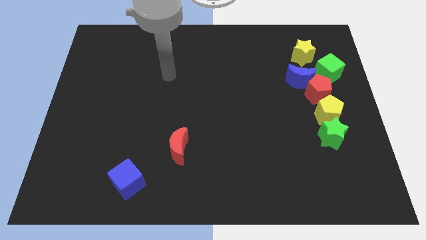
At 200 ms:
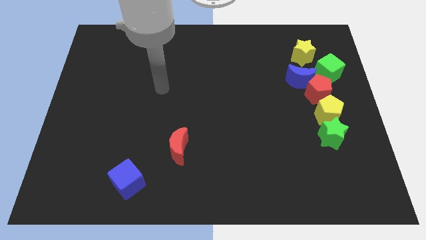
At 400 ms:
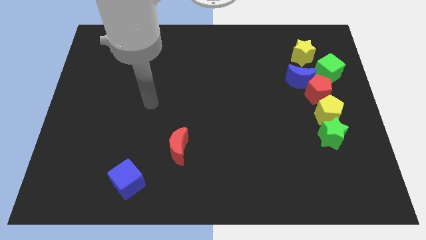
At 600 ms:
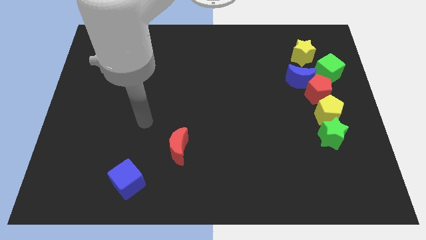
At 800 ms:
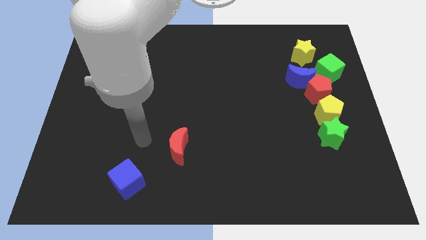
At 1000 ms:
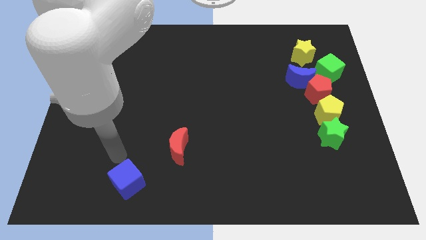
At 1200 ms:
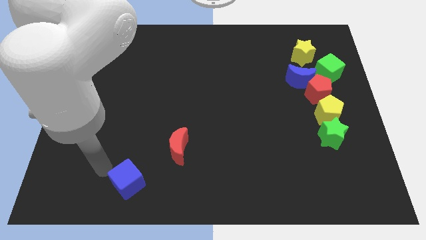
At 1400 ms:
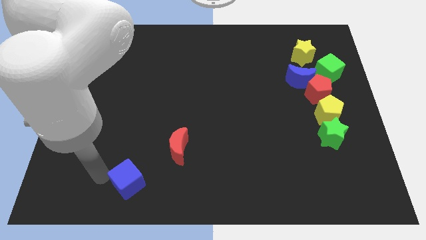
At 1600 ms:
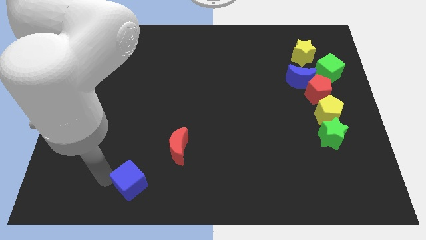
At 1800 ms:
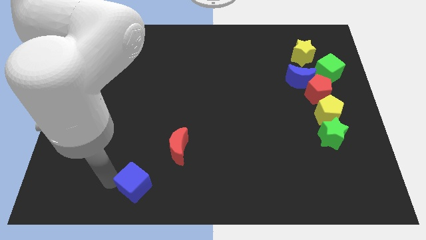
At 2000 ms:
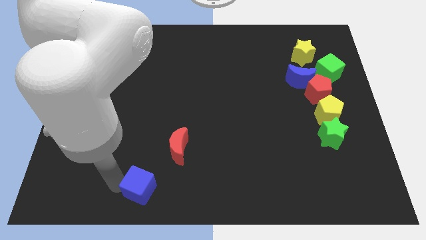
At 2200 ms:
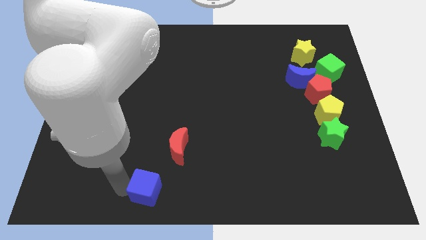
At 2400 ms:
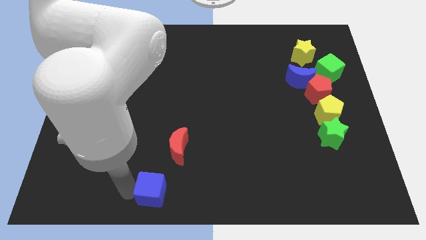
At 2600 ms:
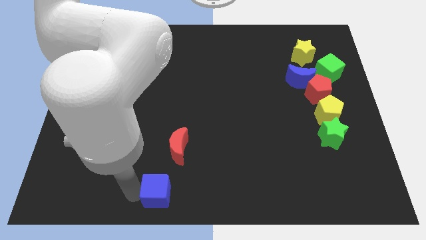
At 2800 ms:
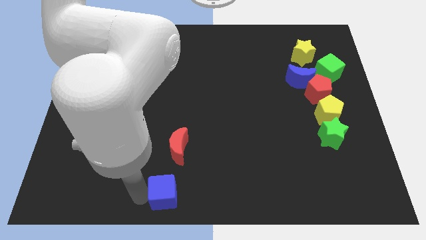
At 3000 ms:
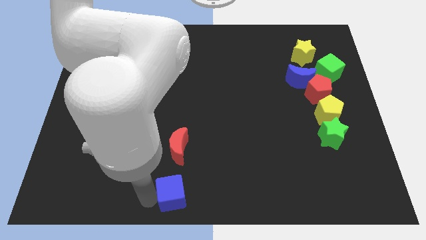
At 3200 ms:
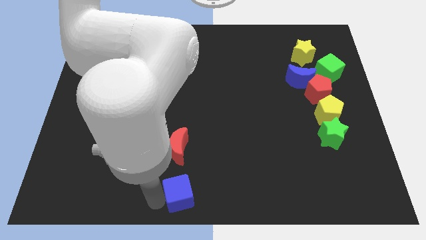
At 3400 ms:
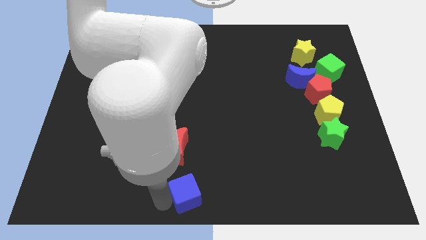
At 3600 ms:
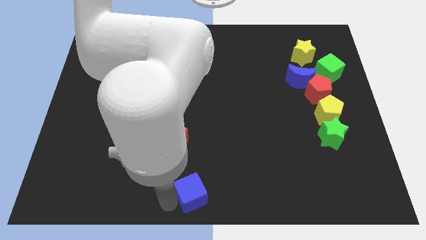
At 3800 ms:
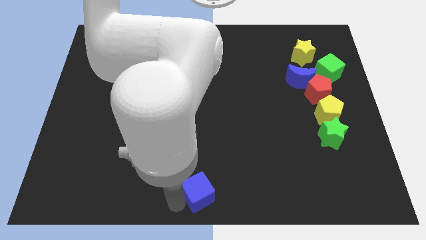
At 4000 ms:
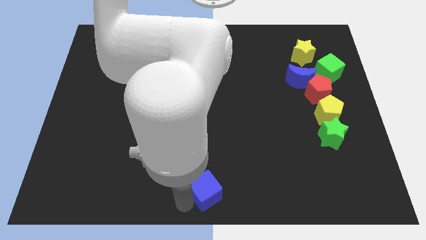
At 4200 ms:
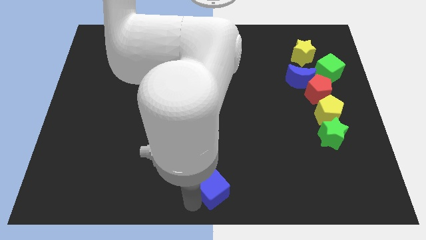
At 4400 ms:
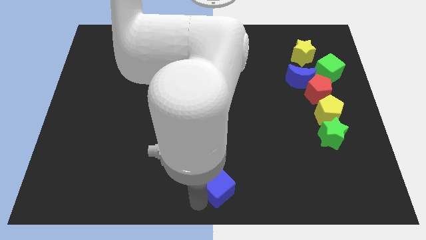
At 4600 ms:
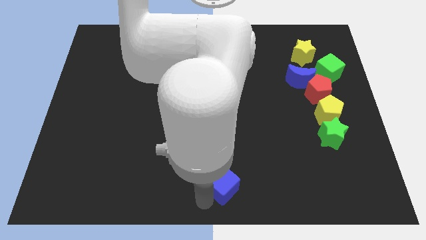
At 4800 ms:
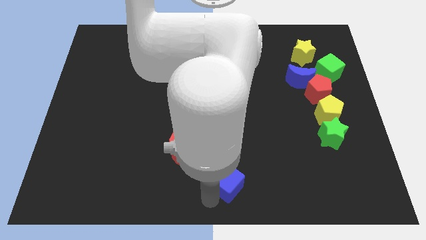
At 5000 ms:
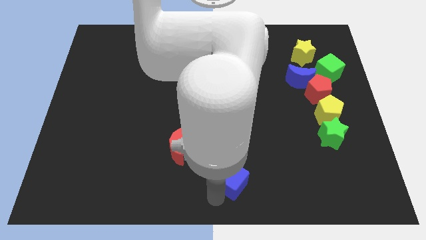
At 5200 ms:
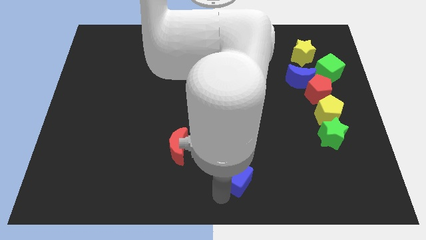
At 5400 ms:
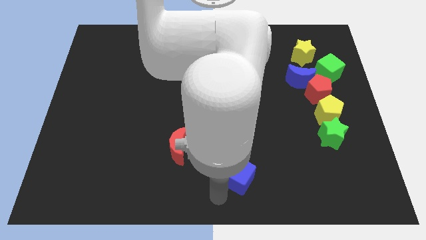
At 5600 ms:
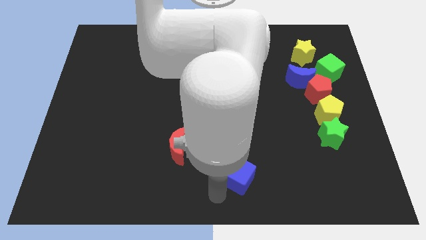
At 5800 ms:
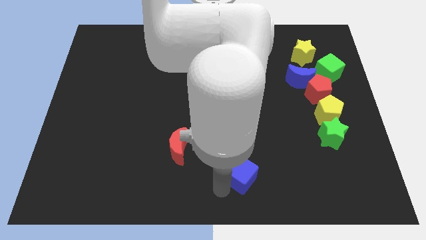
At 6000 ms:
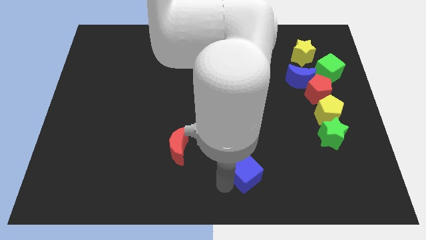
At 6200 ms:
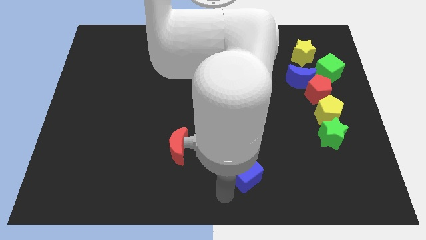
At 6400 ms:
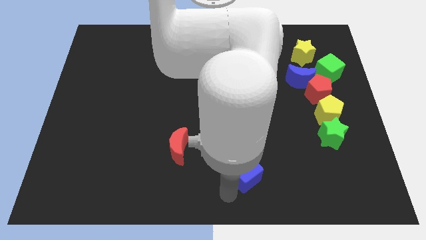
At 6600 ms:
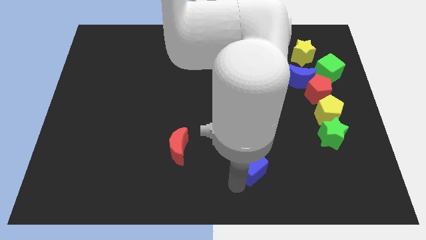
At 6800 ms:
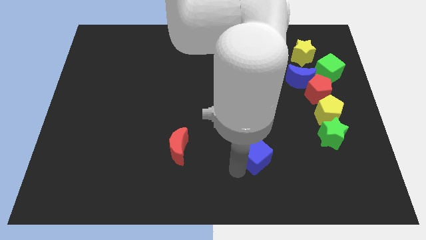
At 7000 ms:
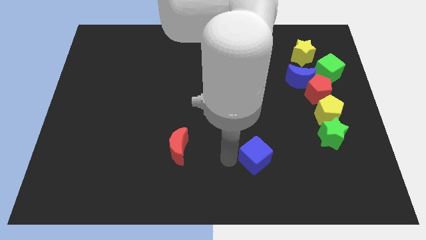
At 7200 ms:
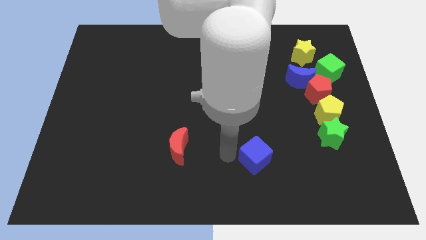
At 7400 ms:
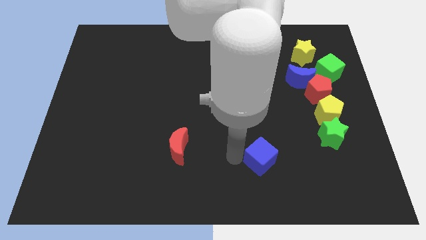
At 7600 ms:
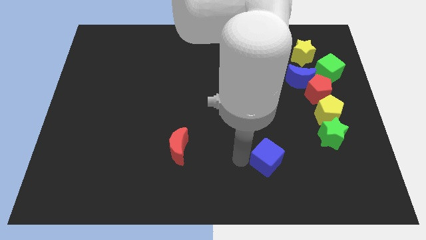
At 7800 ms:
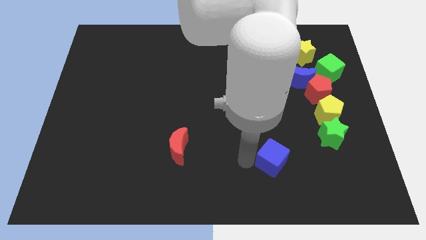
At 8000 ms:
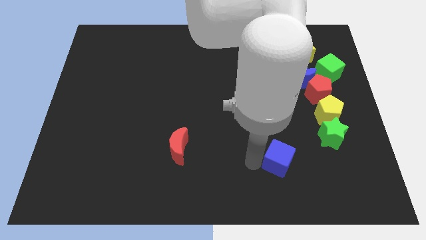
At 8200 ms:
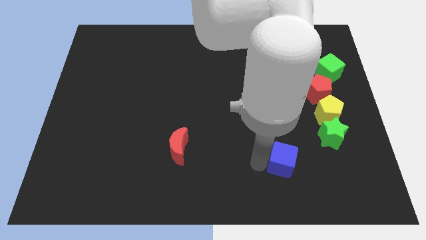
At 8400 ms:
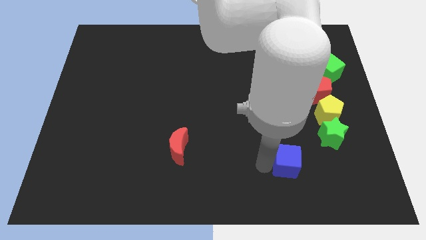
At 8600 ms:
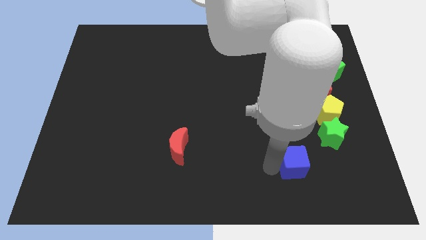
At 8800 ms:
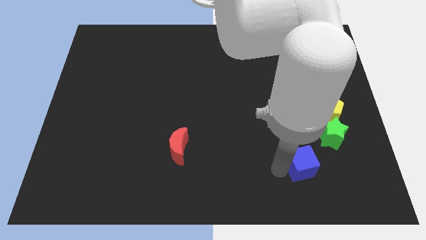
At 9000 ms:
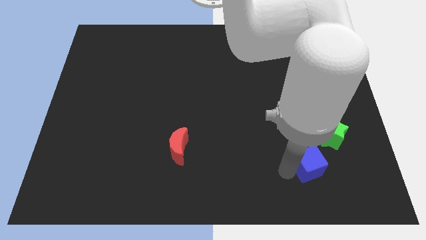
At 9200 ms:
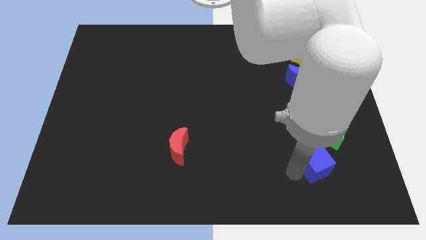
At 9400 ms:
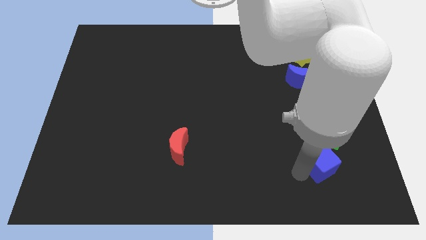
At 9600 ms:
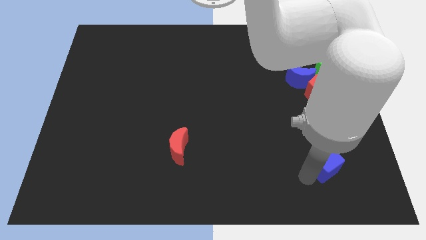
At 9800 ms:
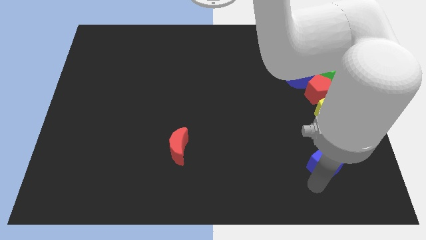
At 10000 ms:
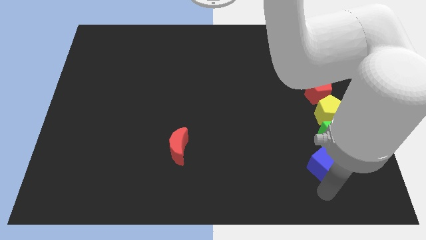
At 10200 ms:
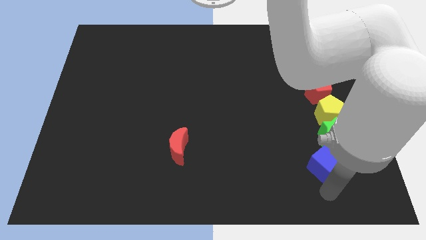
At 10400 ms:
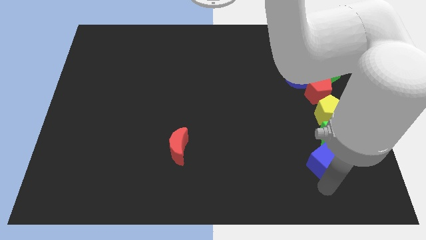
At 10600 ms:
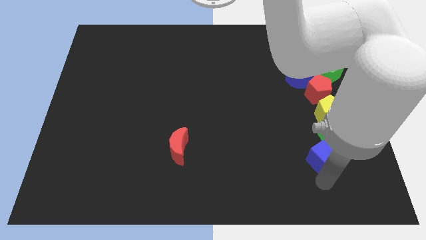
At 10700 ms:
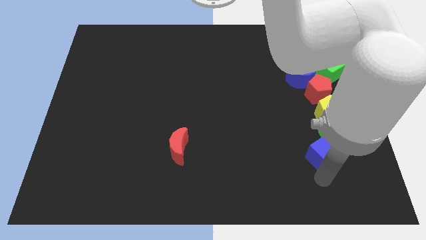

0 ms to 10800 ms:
move the blue cube close to the green star

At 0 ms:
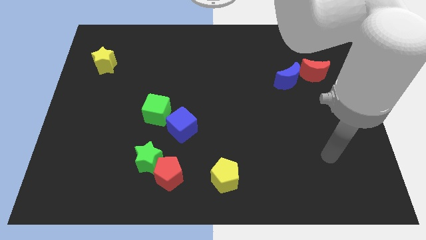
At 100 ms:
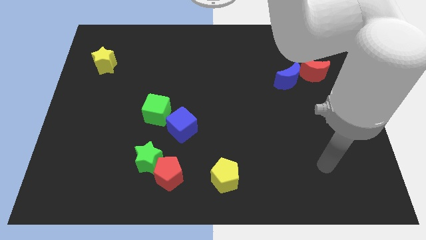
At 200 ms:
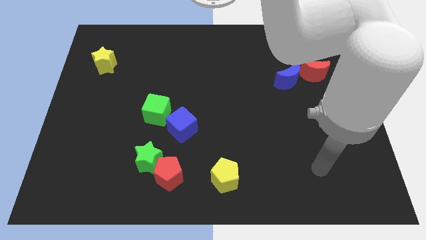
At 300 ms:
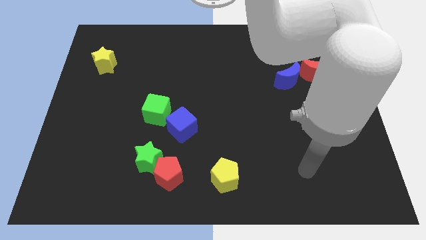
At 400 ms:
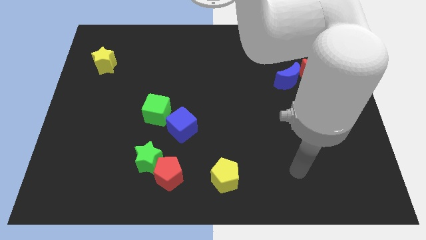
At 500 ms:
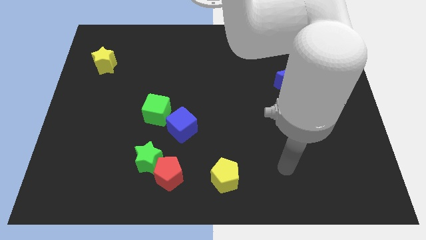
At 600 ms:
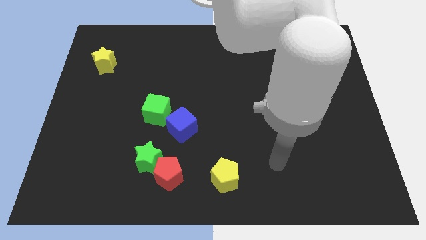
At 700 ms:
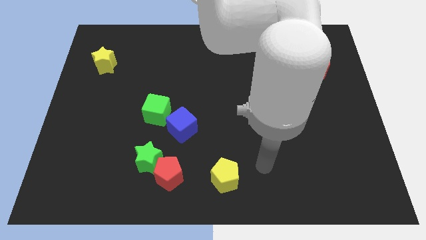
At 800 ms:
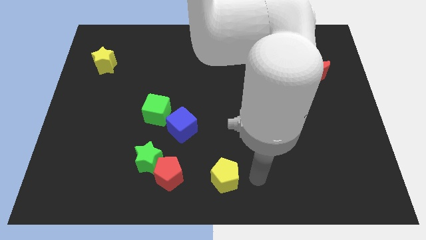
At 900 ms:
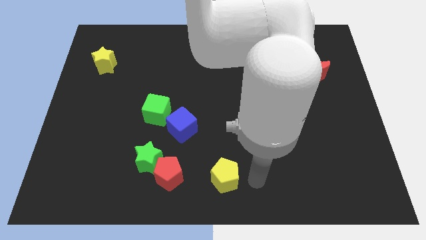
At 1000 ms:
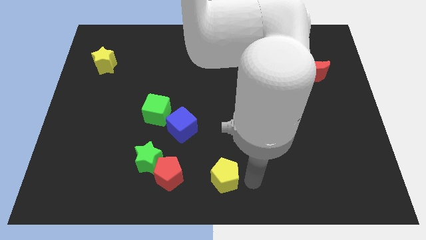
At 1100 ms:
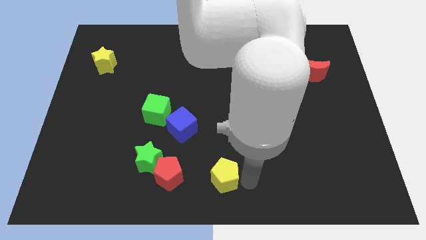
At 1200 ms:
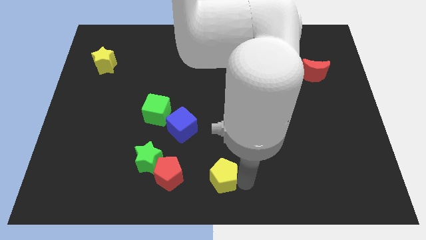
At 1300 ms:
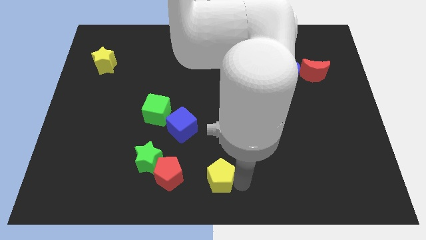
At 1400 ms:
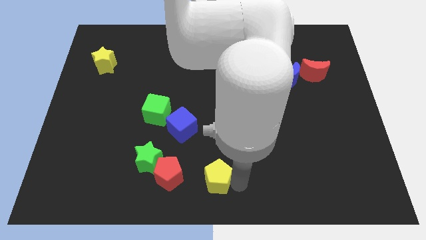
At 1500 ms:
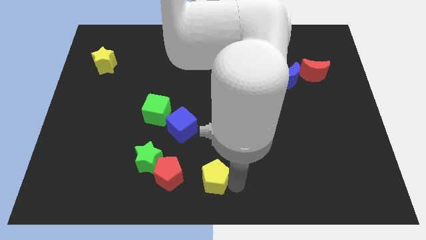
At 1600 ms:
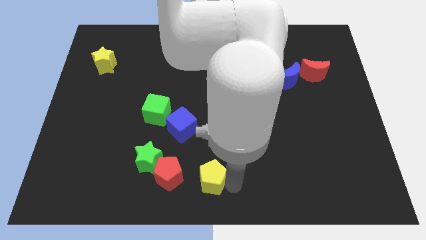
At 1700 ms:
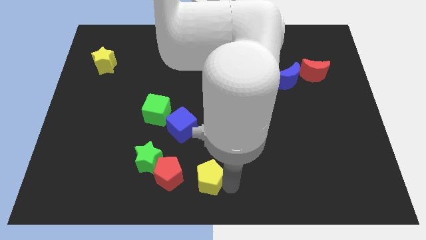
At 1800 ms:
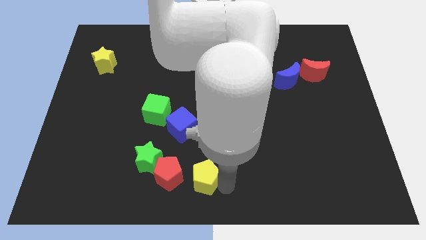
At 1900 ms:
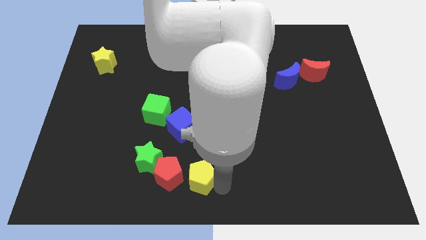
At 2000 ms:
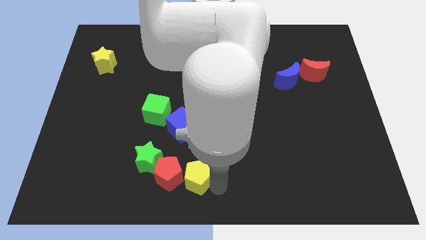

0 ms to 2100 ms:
put the yellow pentagon close to the red pentagon

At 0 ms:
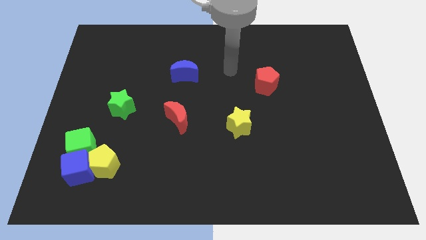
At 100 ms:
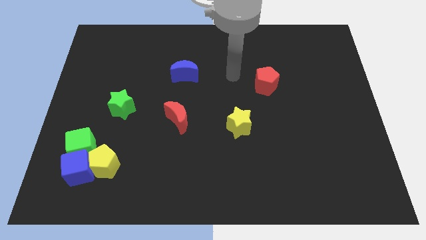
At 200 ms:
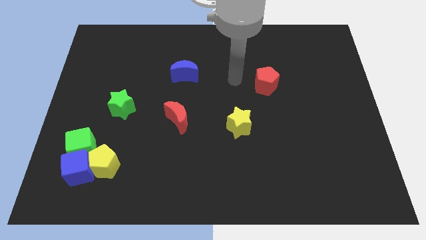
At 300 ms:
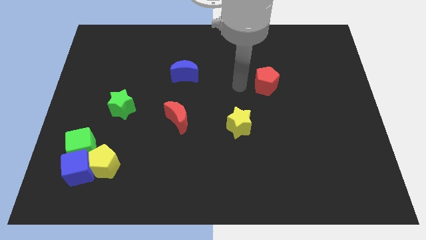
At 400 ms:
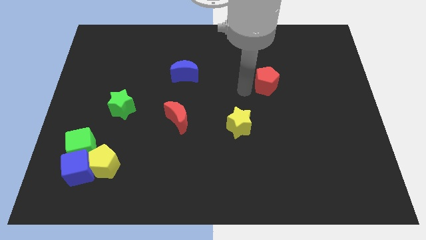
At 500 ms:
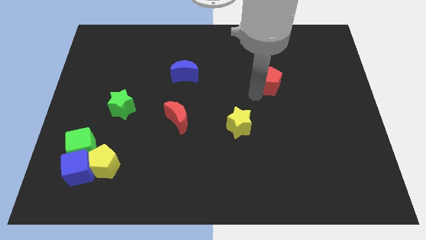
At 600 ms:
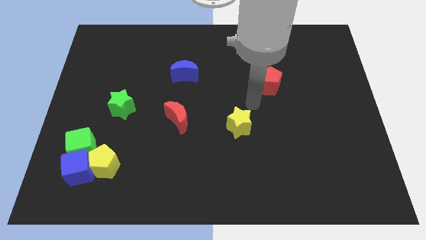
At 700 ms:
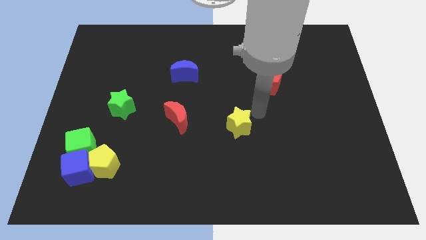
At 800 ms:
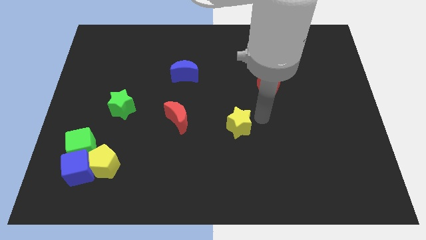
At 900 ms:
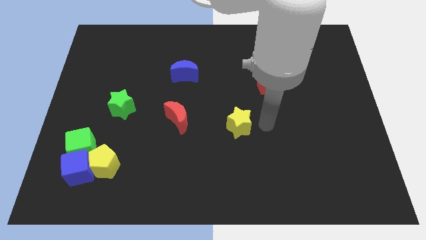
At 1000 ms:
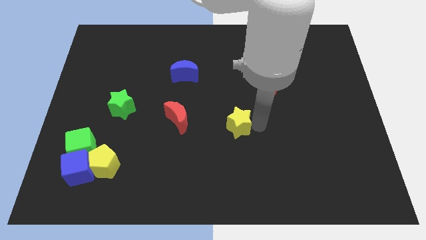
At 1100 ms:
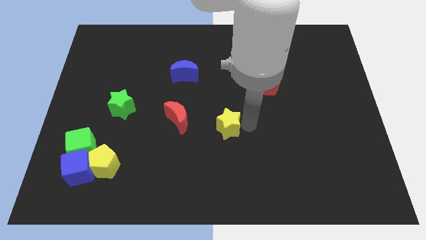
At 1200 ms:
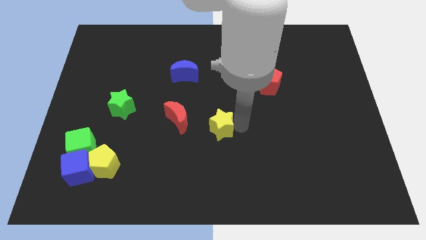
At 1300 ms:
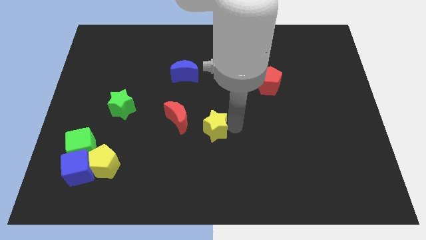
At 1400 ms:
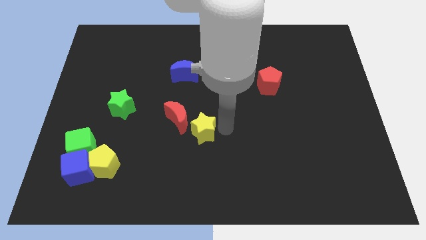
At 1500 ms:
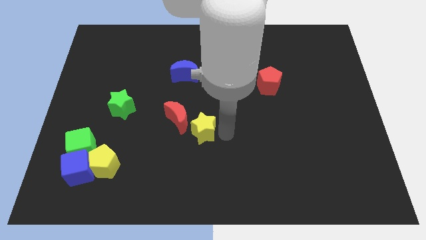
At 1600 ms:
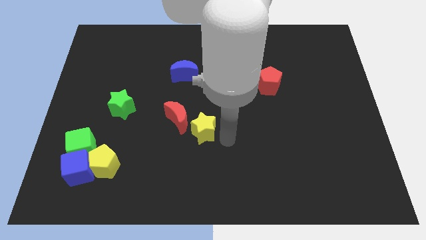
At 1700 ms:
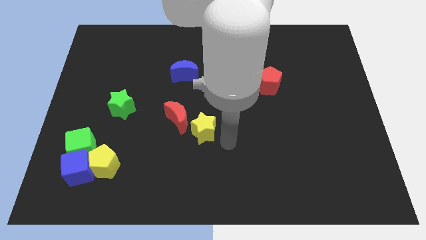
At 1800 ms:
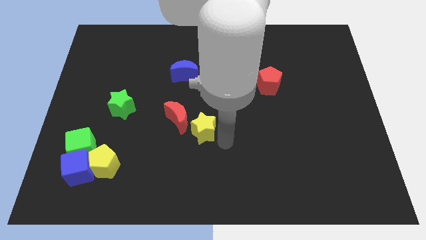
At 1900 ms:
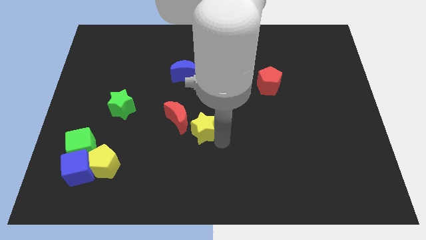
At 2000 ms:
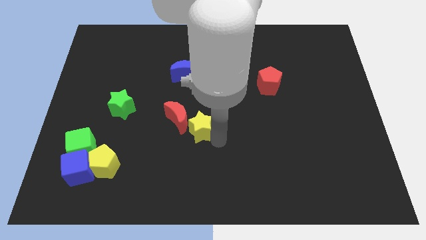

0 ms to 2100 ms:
slide the yellow star to the red moon
